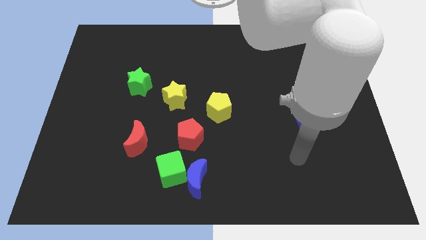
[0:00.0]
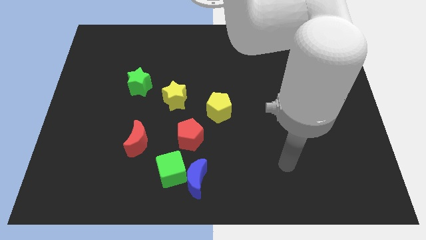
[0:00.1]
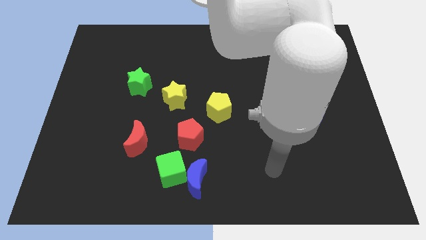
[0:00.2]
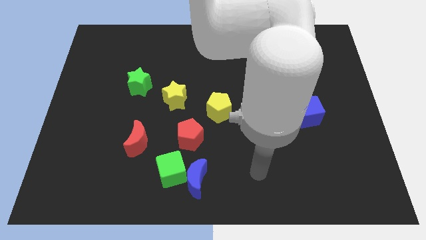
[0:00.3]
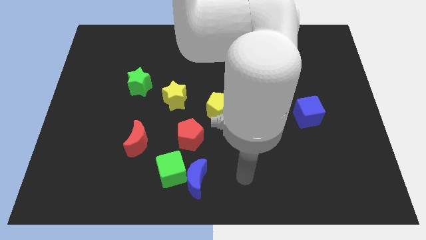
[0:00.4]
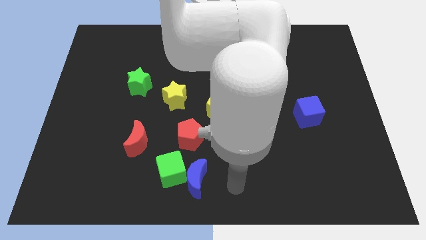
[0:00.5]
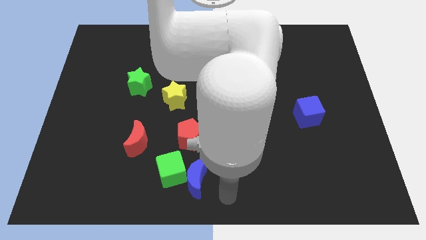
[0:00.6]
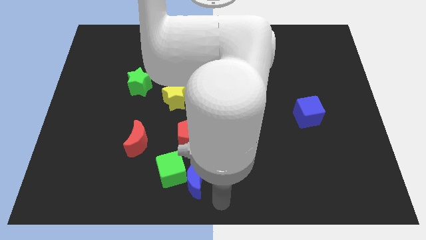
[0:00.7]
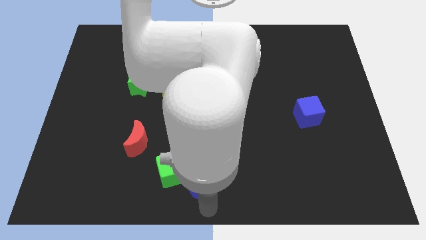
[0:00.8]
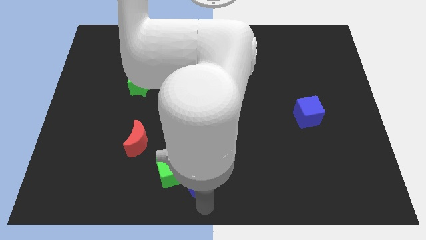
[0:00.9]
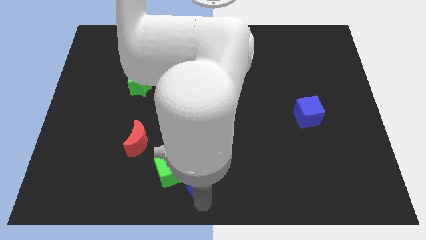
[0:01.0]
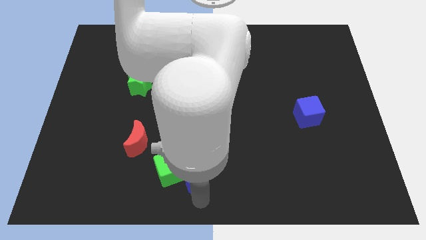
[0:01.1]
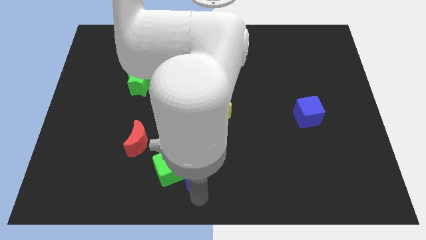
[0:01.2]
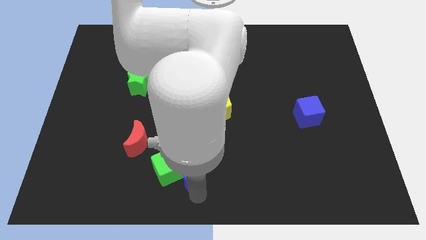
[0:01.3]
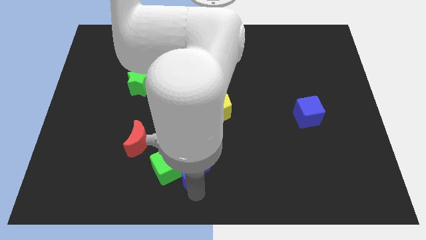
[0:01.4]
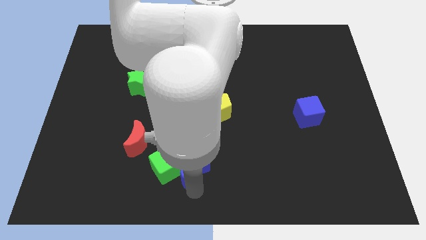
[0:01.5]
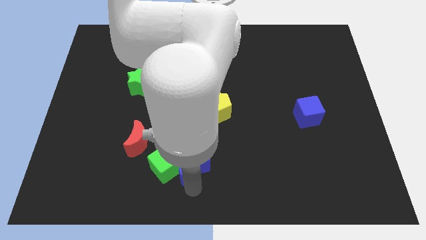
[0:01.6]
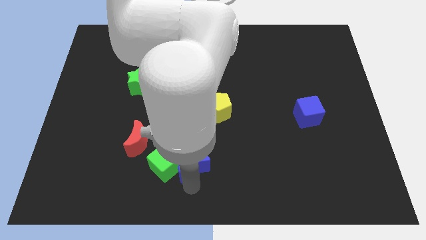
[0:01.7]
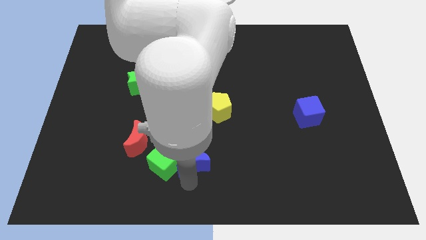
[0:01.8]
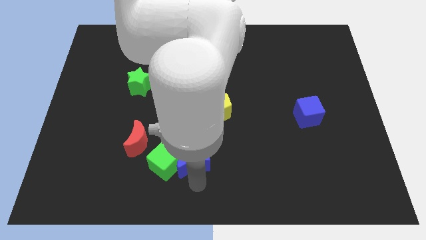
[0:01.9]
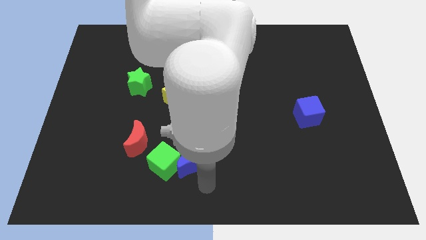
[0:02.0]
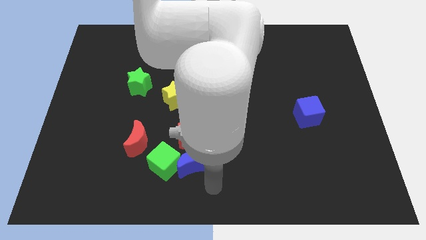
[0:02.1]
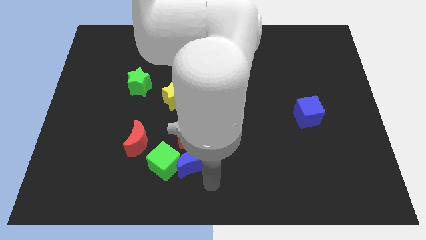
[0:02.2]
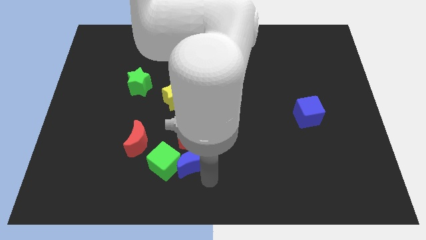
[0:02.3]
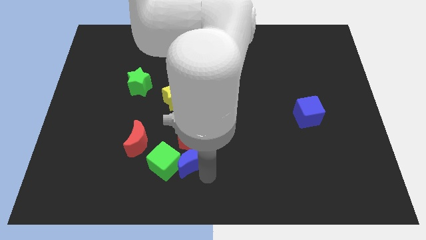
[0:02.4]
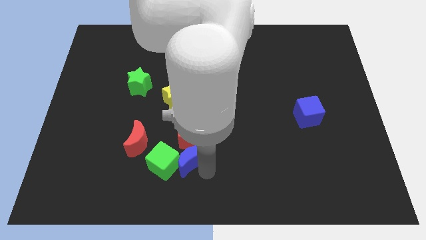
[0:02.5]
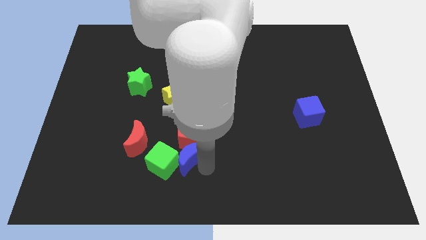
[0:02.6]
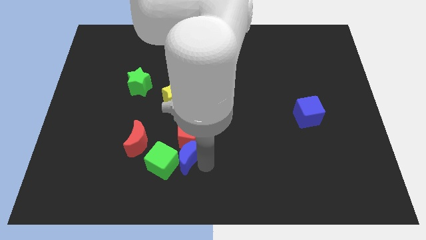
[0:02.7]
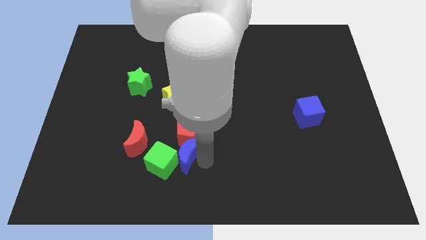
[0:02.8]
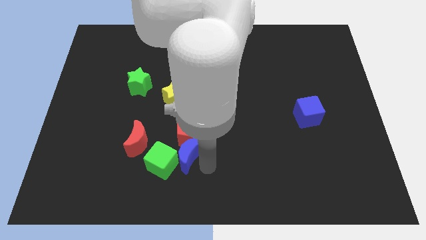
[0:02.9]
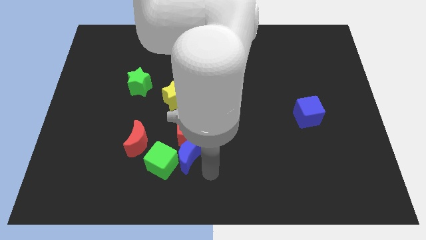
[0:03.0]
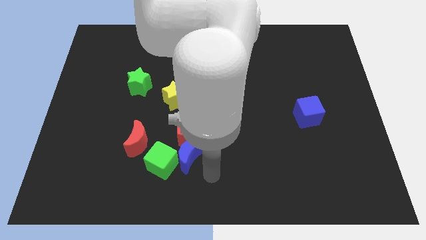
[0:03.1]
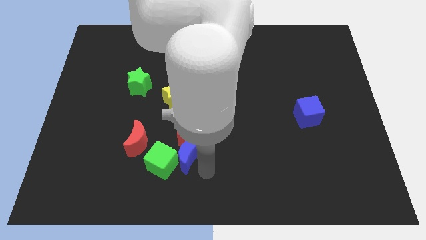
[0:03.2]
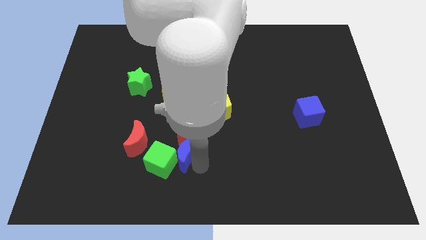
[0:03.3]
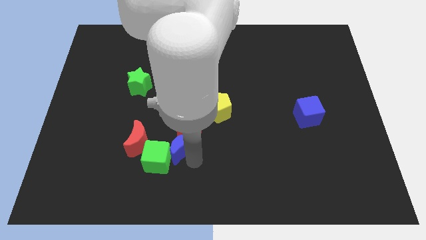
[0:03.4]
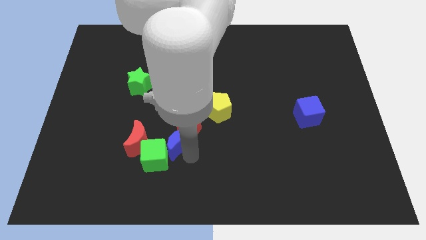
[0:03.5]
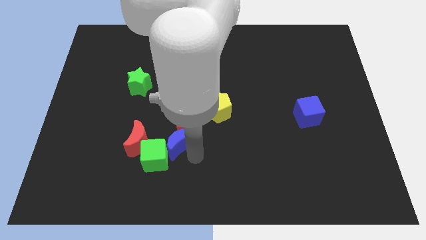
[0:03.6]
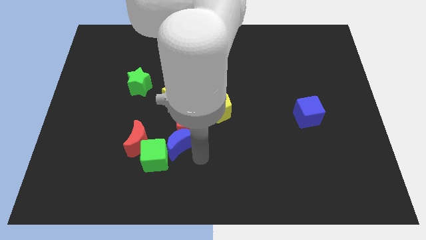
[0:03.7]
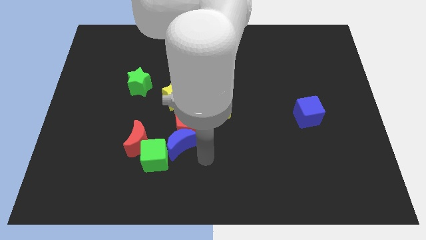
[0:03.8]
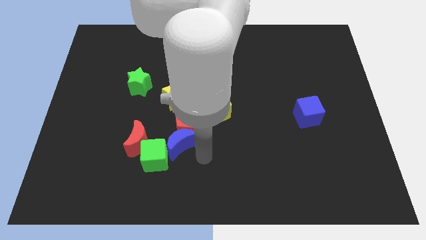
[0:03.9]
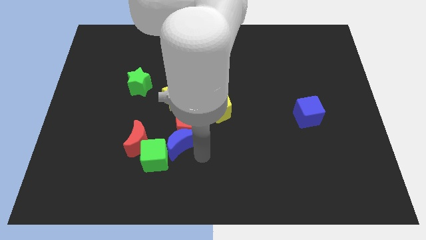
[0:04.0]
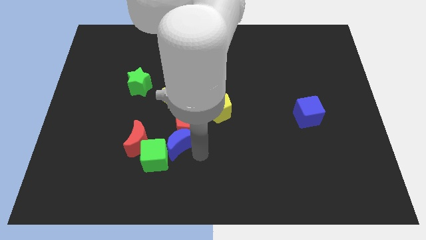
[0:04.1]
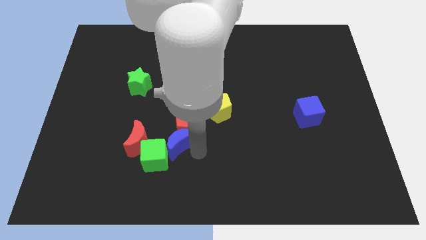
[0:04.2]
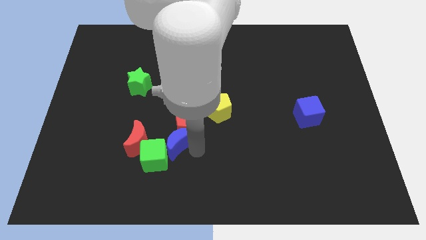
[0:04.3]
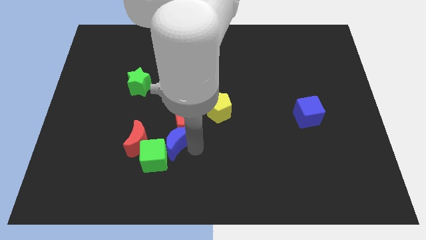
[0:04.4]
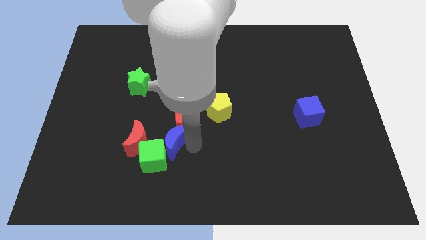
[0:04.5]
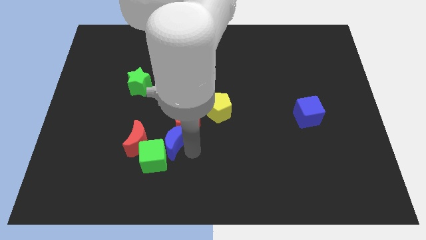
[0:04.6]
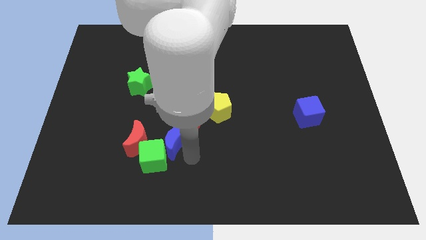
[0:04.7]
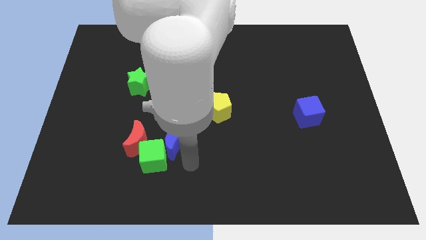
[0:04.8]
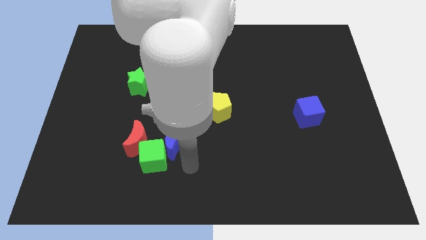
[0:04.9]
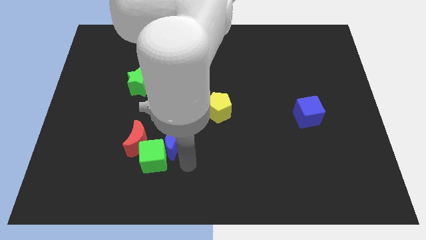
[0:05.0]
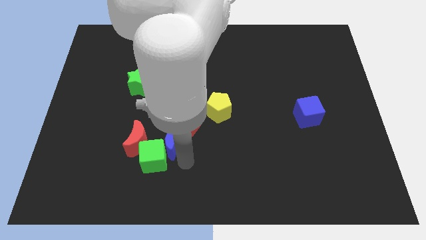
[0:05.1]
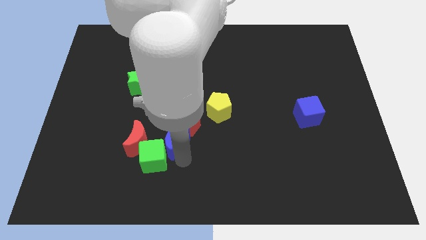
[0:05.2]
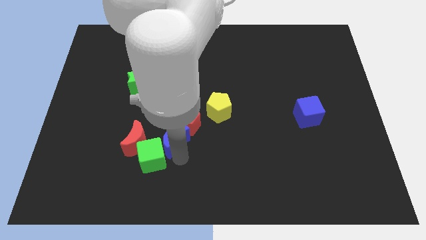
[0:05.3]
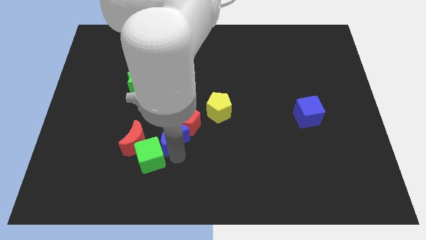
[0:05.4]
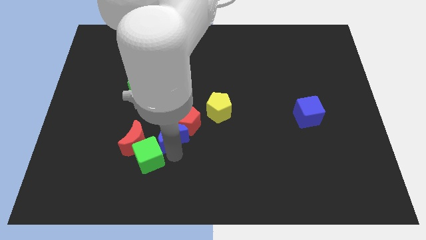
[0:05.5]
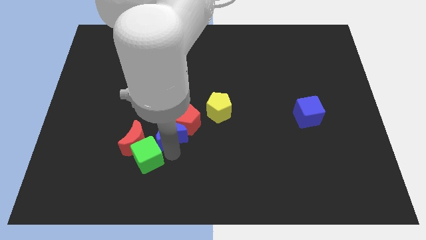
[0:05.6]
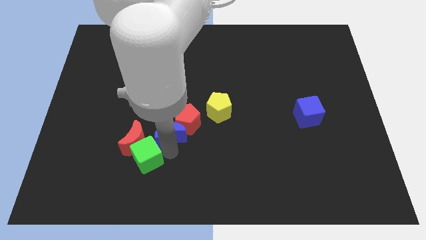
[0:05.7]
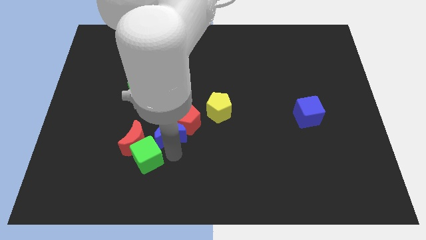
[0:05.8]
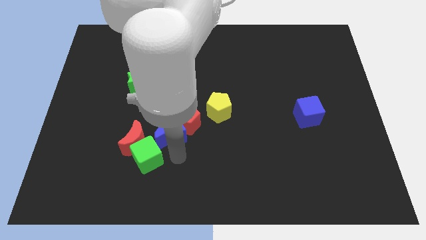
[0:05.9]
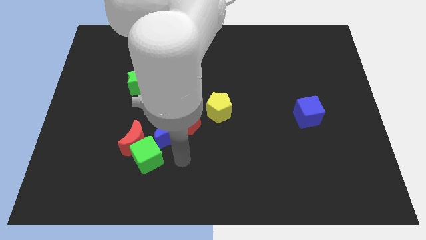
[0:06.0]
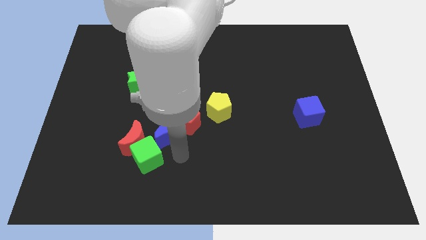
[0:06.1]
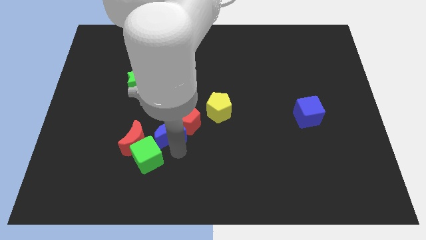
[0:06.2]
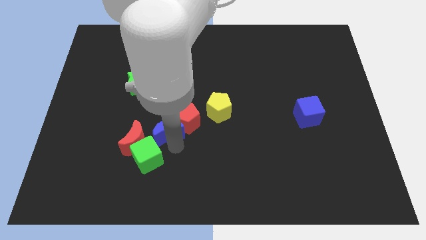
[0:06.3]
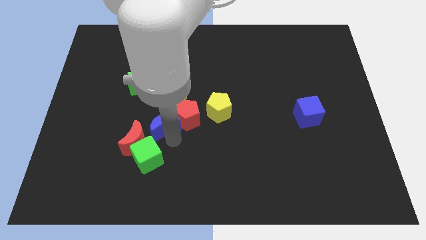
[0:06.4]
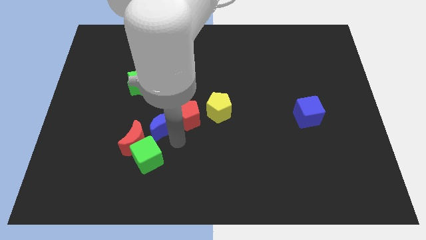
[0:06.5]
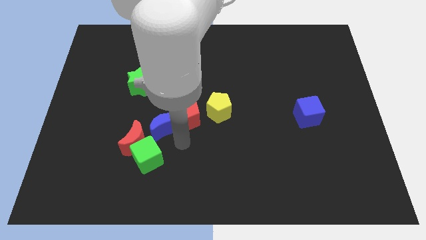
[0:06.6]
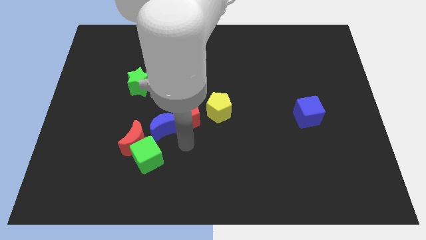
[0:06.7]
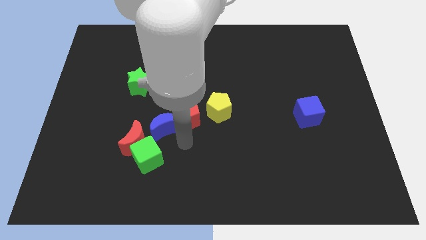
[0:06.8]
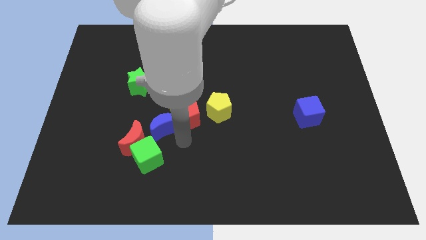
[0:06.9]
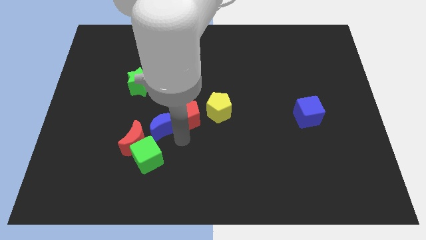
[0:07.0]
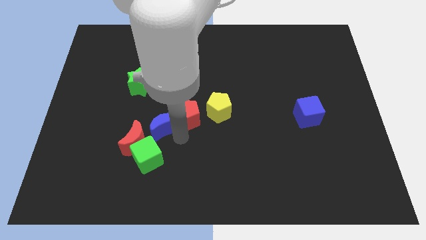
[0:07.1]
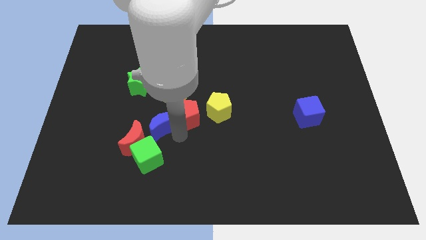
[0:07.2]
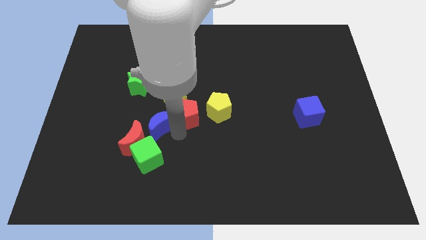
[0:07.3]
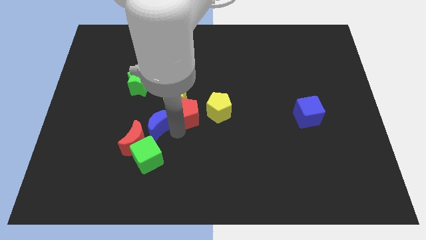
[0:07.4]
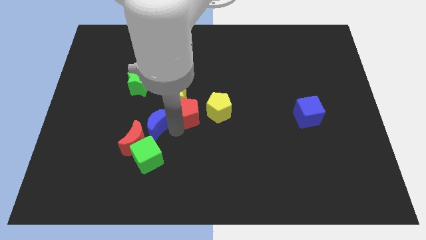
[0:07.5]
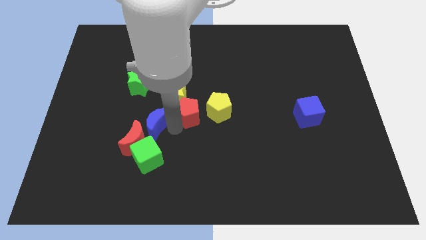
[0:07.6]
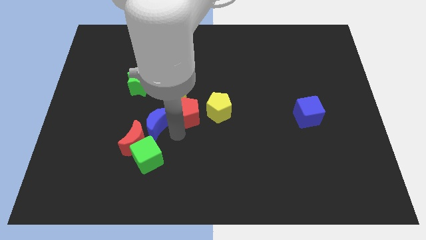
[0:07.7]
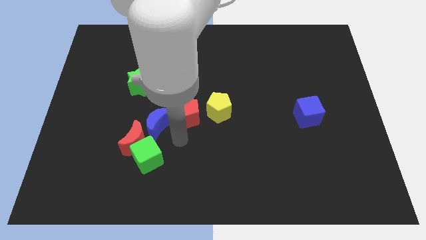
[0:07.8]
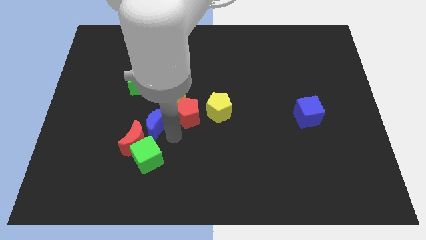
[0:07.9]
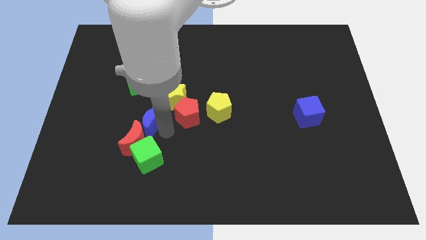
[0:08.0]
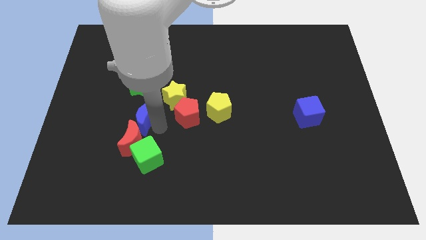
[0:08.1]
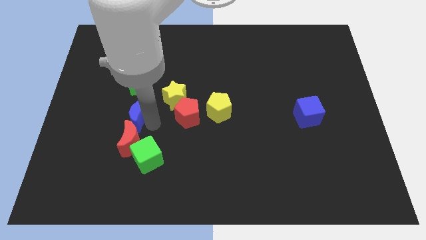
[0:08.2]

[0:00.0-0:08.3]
move the blue moon up and to the left diagonally
